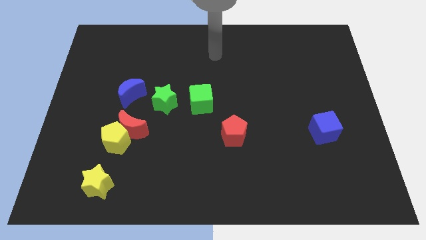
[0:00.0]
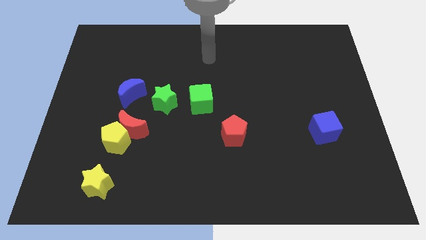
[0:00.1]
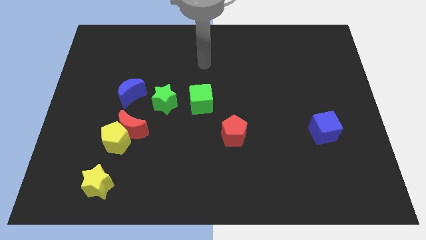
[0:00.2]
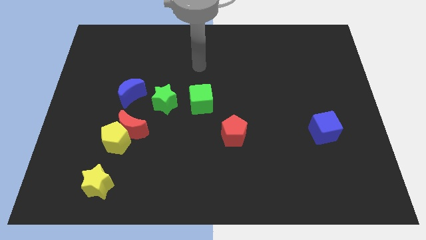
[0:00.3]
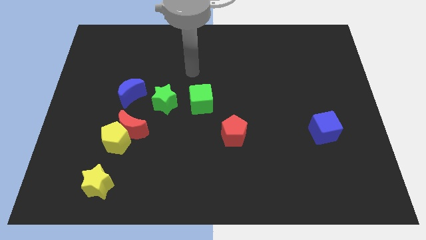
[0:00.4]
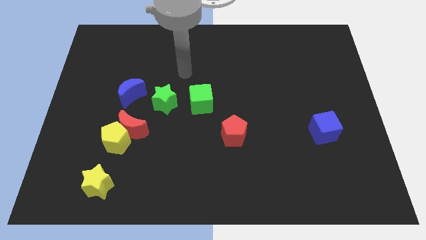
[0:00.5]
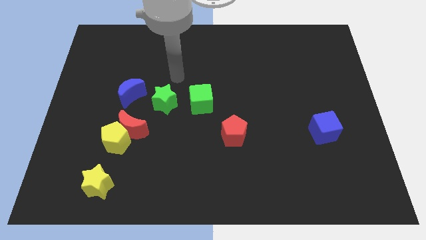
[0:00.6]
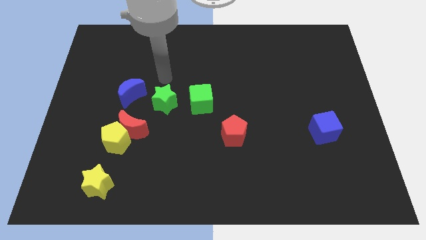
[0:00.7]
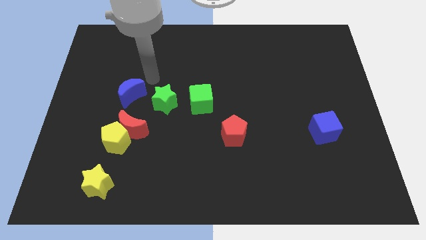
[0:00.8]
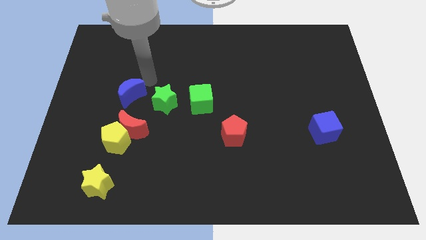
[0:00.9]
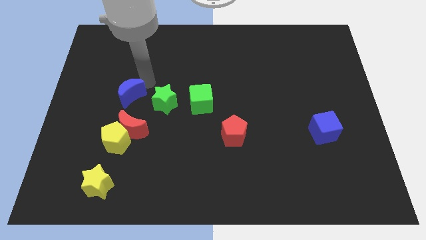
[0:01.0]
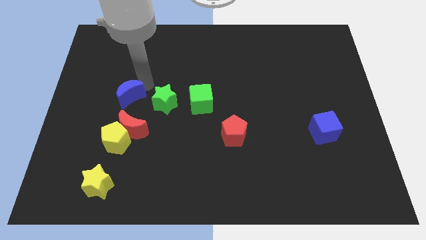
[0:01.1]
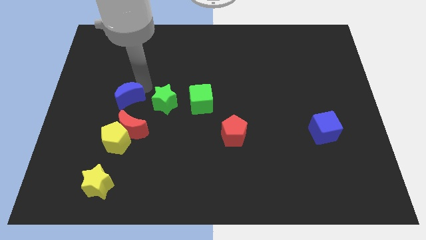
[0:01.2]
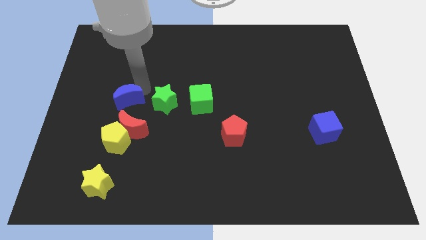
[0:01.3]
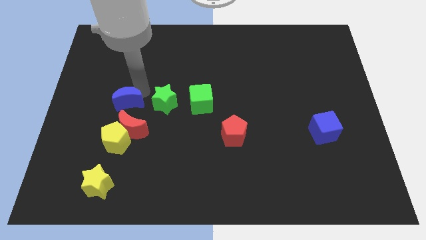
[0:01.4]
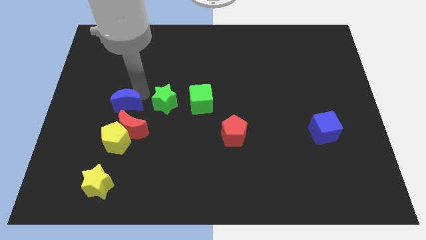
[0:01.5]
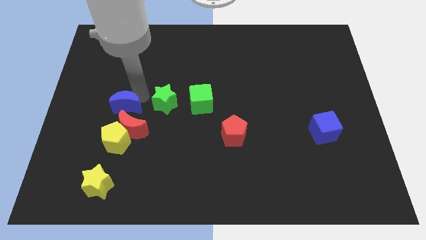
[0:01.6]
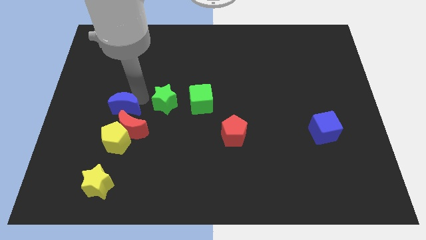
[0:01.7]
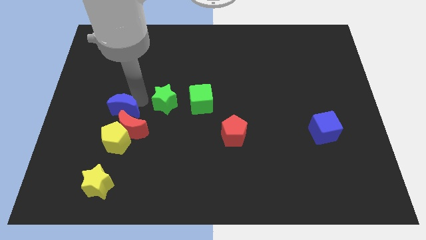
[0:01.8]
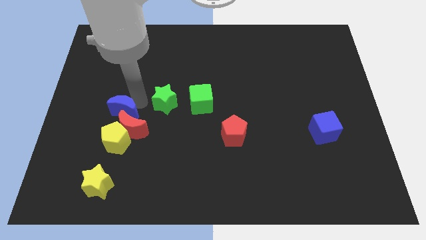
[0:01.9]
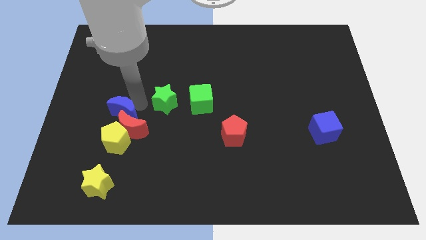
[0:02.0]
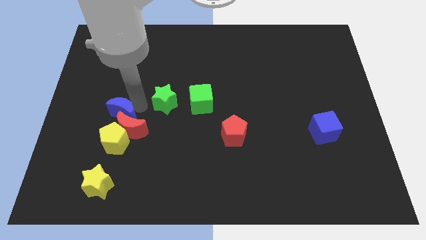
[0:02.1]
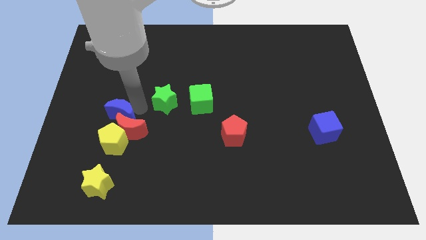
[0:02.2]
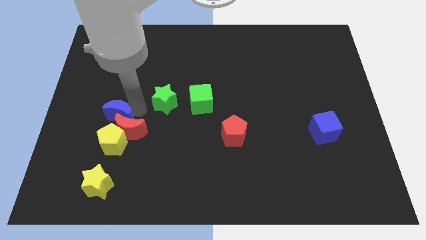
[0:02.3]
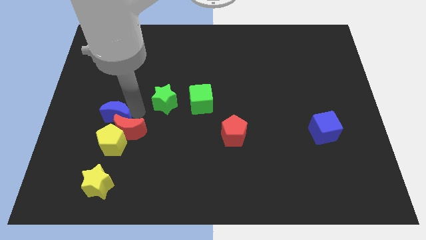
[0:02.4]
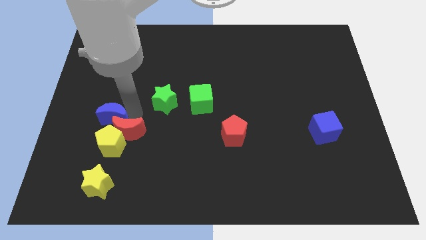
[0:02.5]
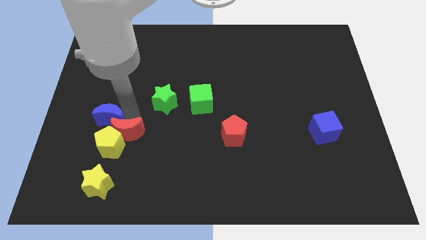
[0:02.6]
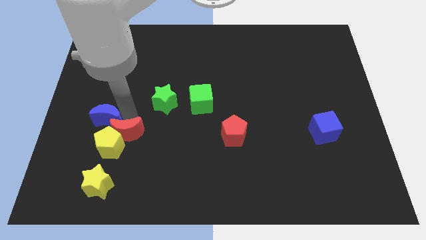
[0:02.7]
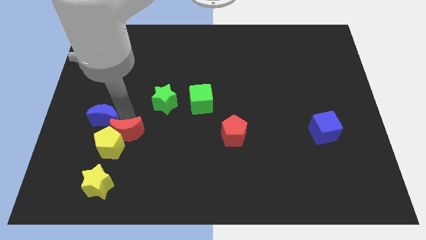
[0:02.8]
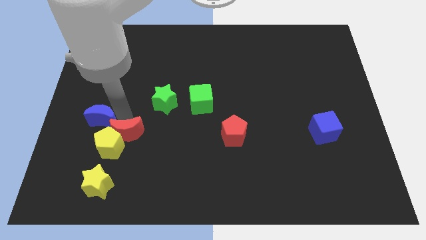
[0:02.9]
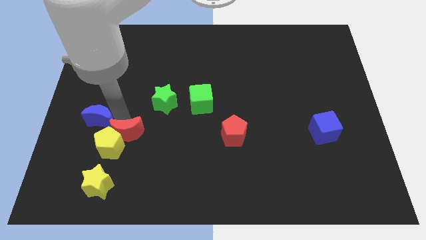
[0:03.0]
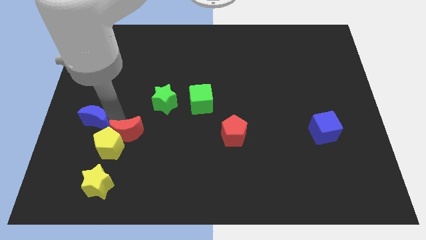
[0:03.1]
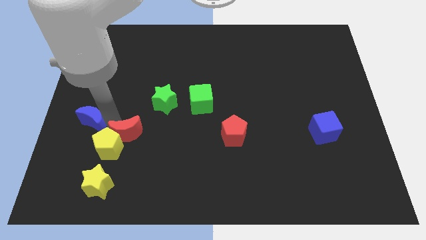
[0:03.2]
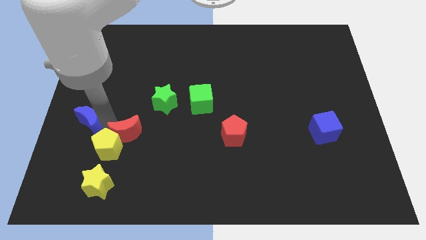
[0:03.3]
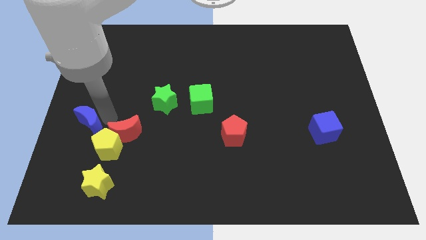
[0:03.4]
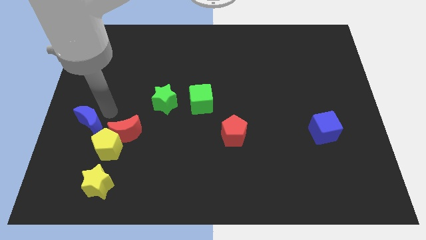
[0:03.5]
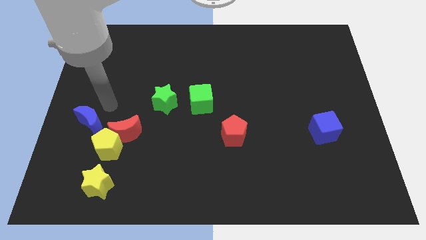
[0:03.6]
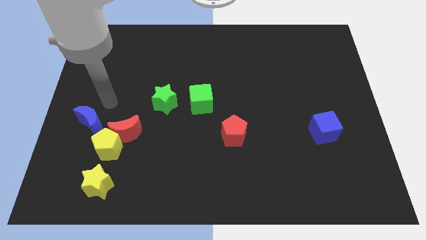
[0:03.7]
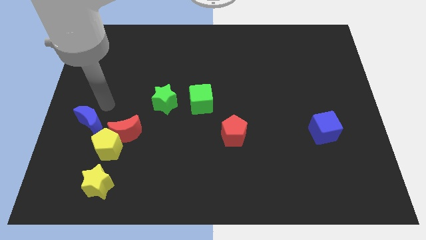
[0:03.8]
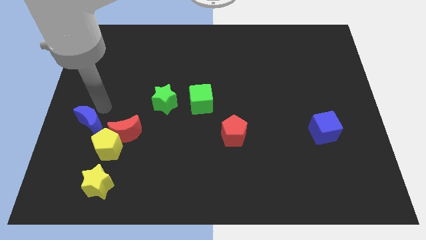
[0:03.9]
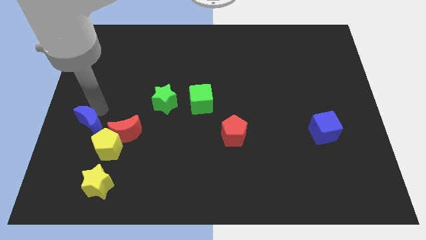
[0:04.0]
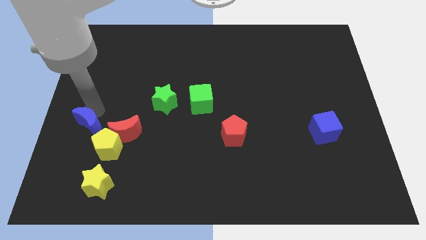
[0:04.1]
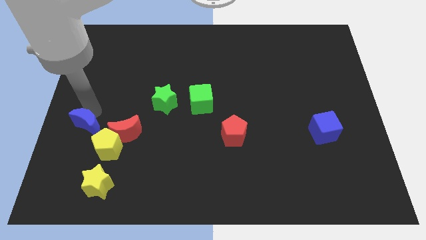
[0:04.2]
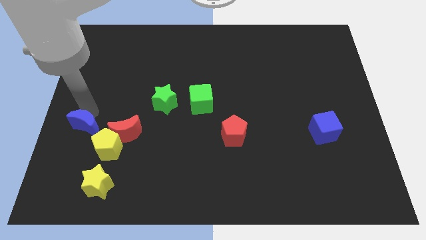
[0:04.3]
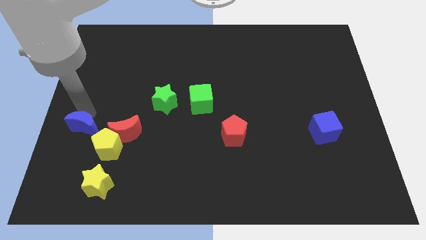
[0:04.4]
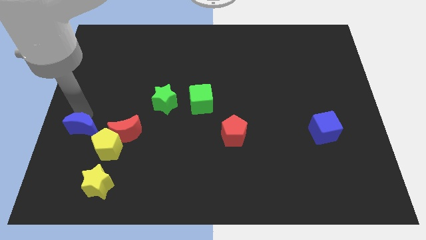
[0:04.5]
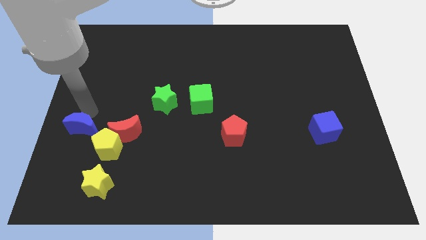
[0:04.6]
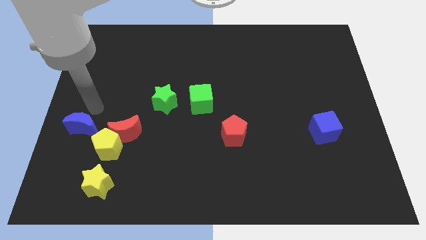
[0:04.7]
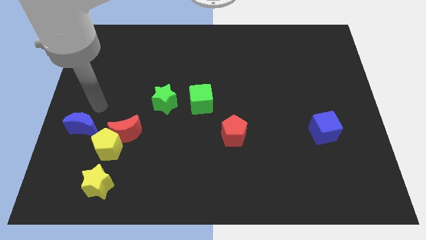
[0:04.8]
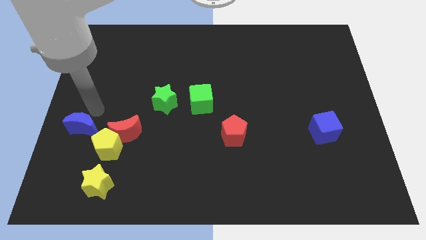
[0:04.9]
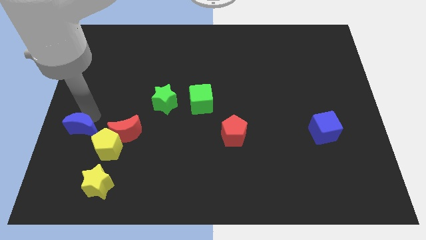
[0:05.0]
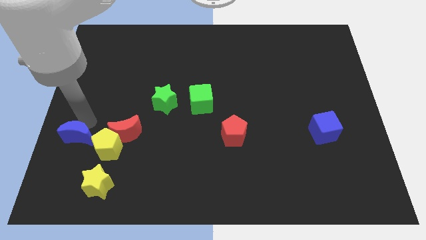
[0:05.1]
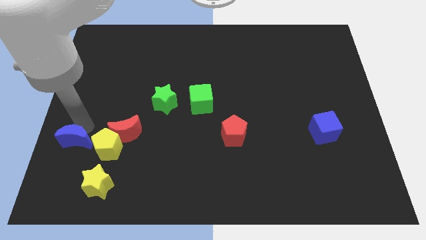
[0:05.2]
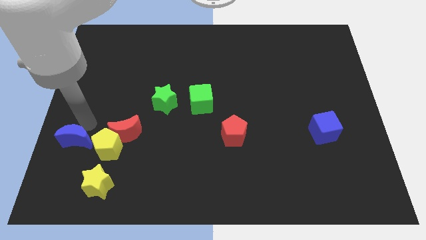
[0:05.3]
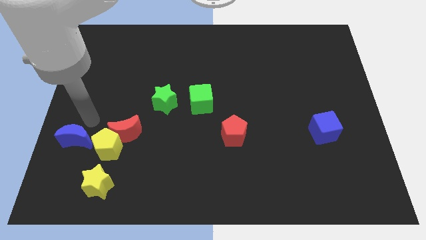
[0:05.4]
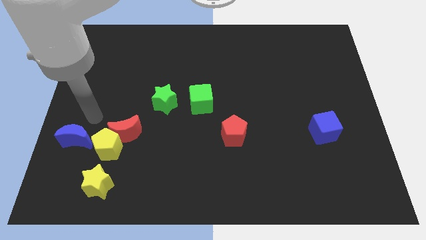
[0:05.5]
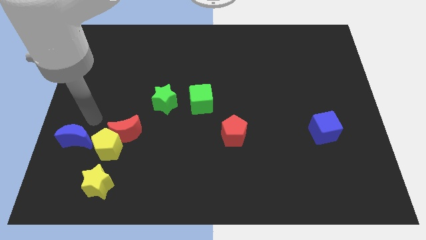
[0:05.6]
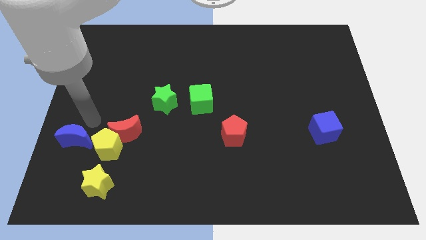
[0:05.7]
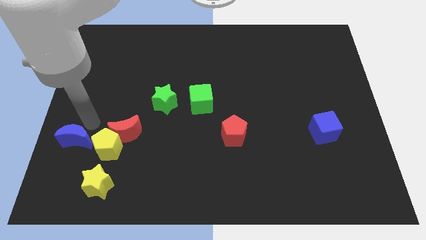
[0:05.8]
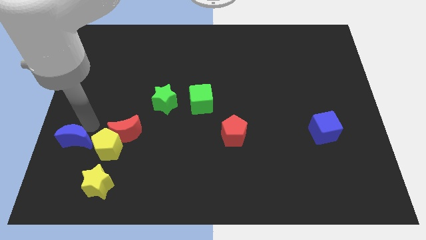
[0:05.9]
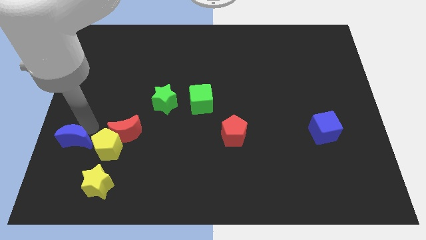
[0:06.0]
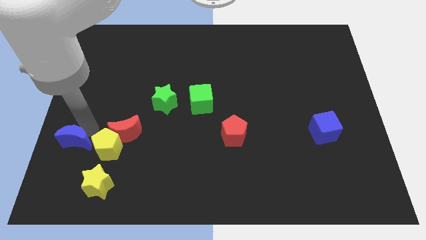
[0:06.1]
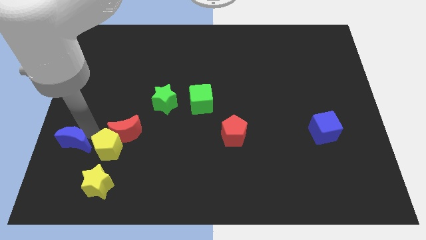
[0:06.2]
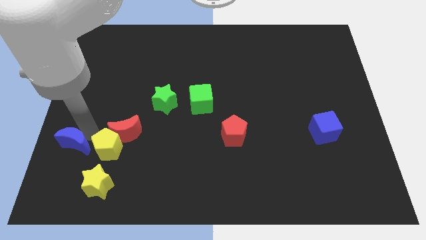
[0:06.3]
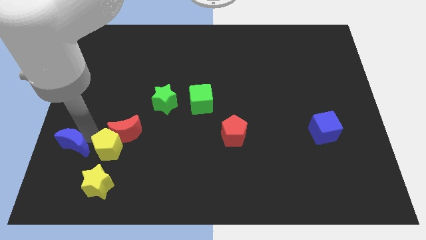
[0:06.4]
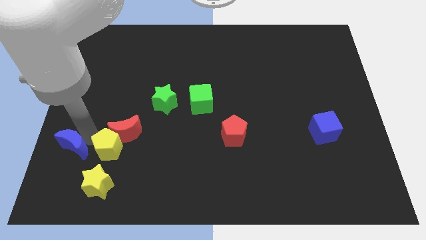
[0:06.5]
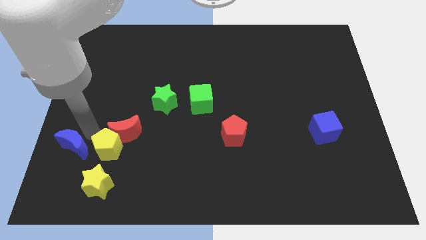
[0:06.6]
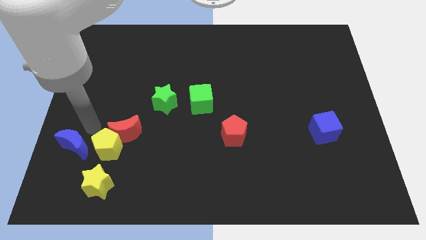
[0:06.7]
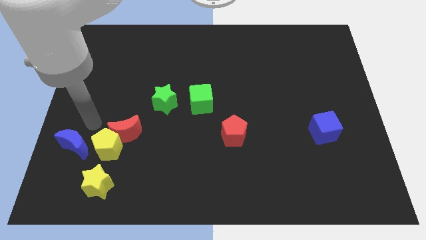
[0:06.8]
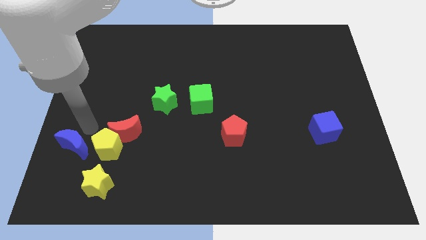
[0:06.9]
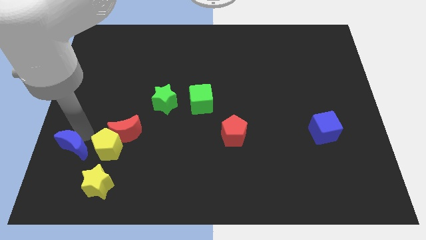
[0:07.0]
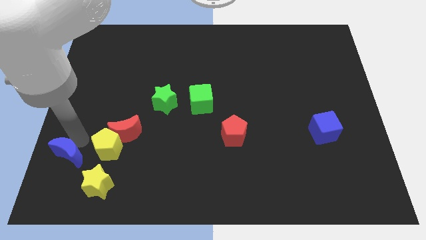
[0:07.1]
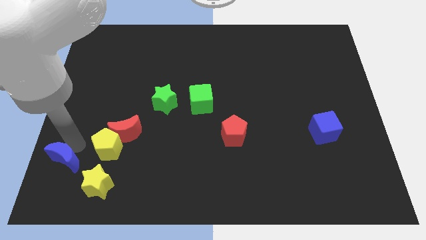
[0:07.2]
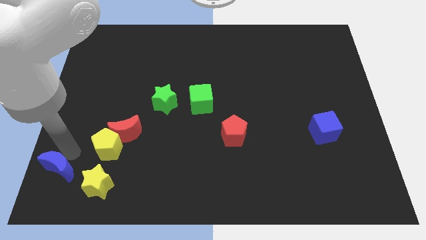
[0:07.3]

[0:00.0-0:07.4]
move the blue moon to the bottom left
